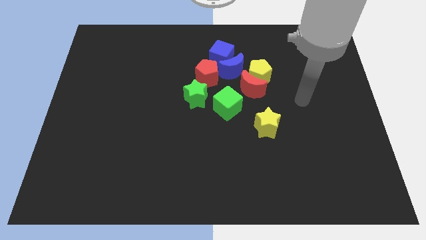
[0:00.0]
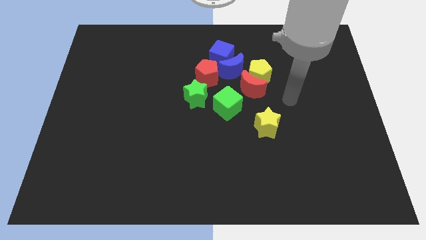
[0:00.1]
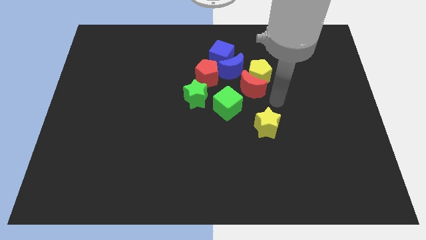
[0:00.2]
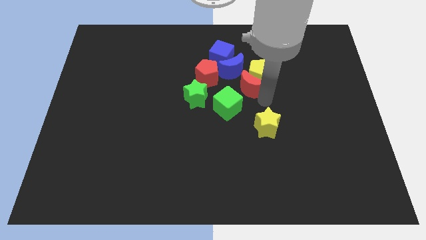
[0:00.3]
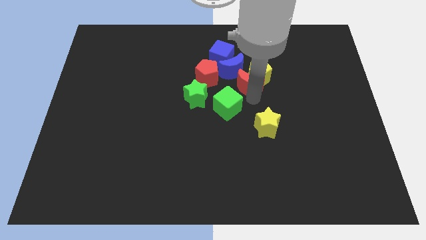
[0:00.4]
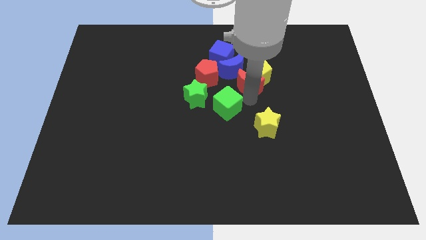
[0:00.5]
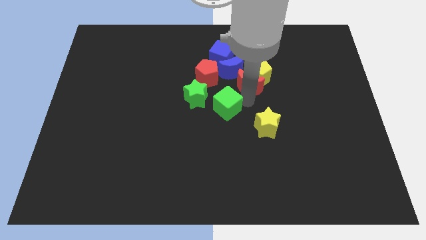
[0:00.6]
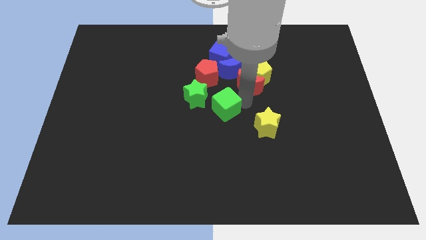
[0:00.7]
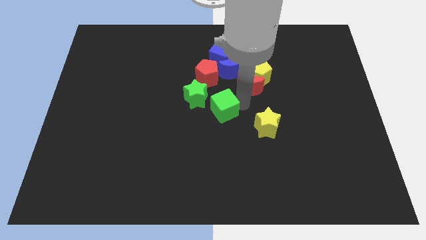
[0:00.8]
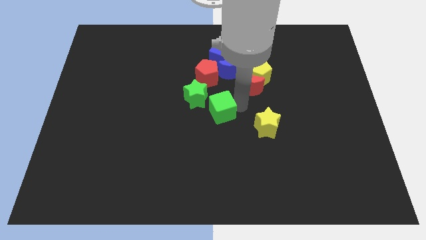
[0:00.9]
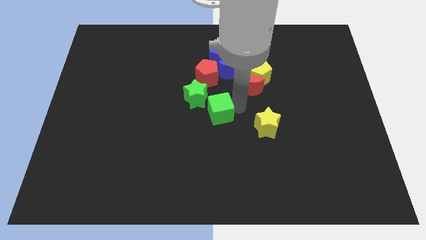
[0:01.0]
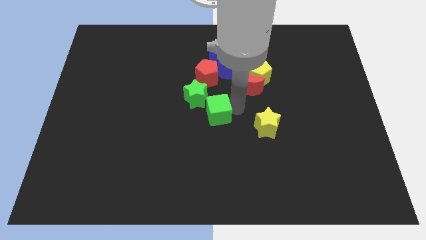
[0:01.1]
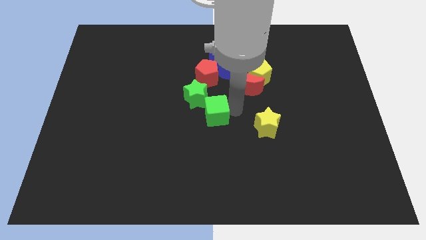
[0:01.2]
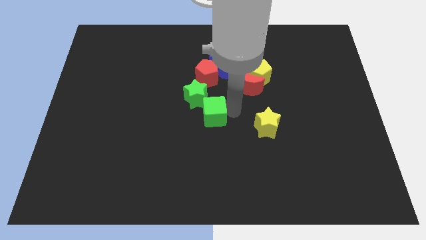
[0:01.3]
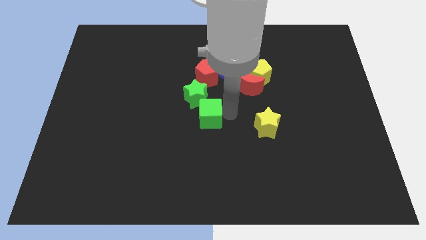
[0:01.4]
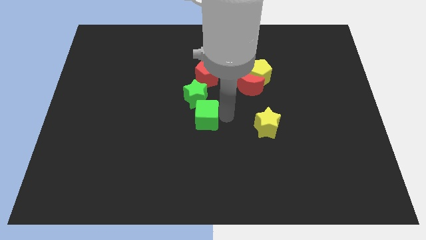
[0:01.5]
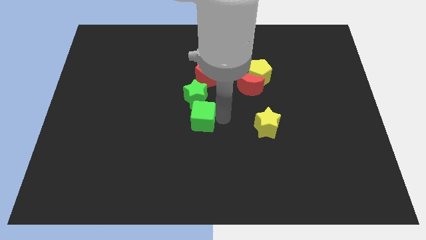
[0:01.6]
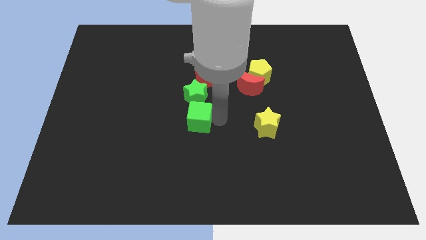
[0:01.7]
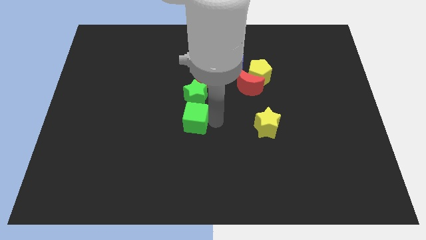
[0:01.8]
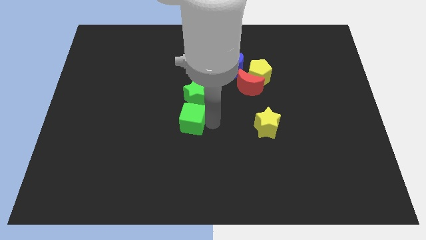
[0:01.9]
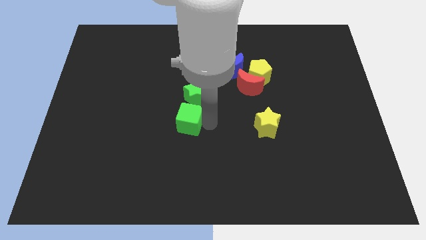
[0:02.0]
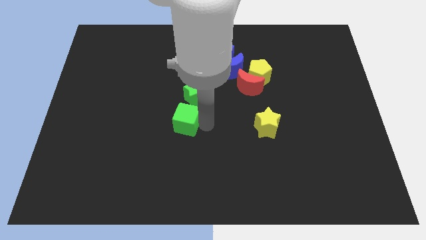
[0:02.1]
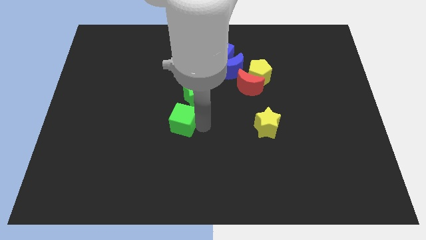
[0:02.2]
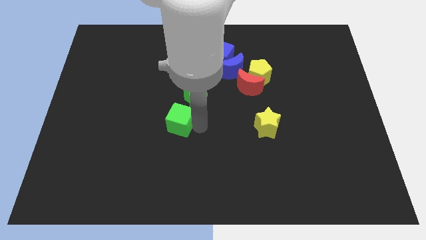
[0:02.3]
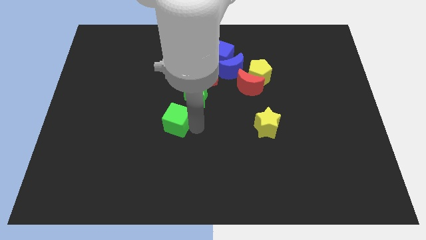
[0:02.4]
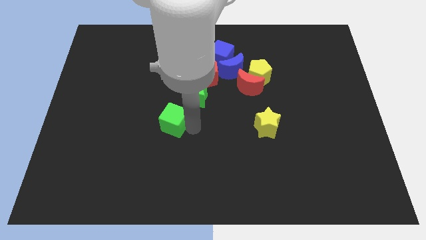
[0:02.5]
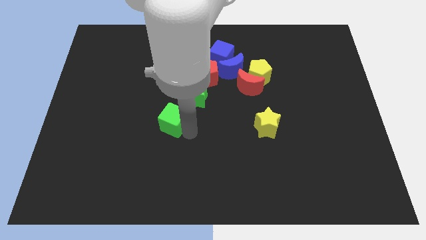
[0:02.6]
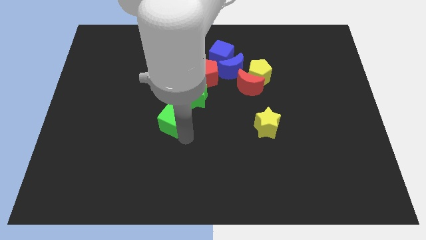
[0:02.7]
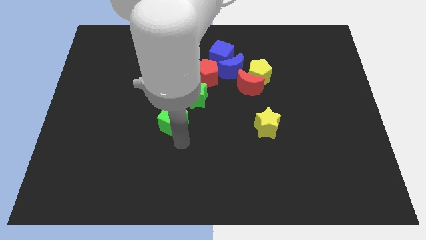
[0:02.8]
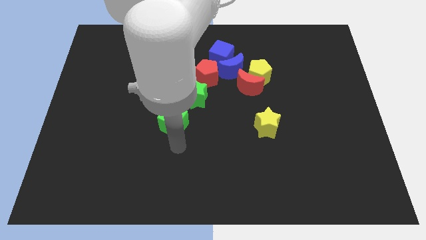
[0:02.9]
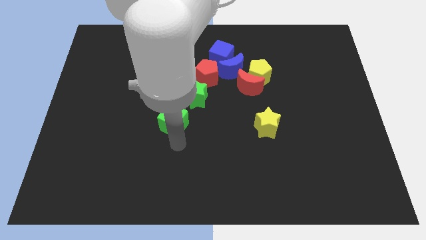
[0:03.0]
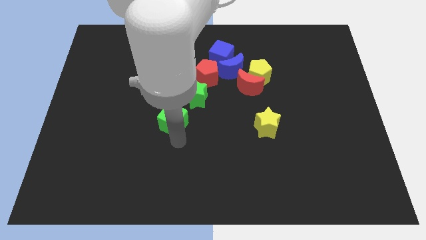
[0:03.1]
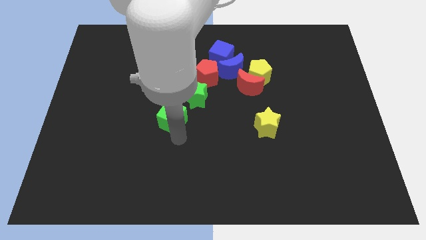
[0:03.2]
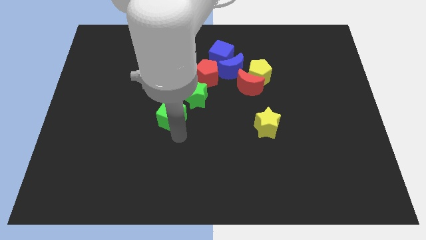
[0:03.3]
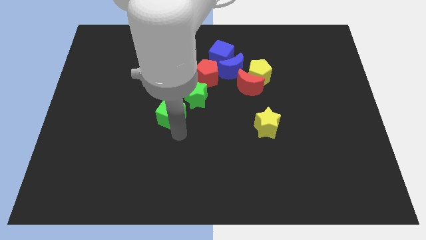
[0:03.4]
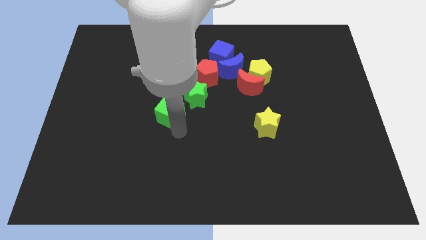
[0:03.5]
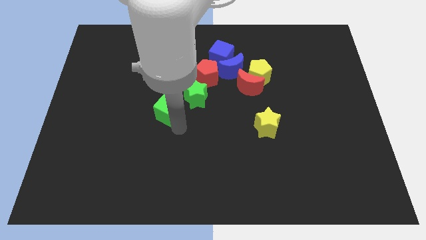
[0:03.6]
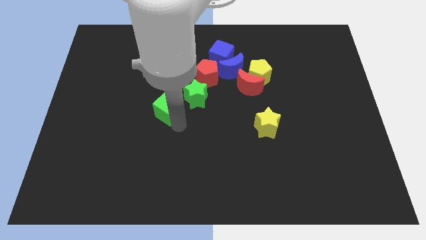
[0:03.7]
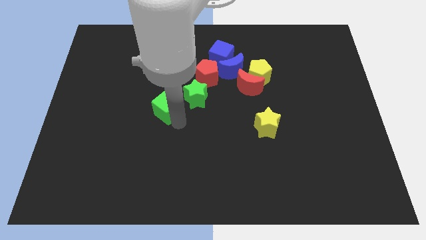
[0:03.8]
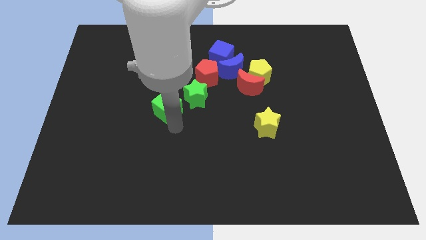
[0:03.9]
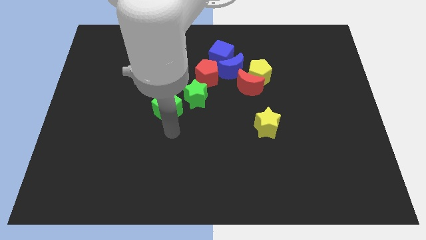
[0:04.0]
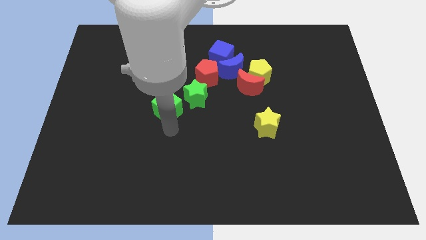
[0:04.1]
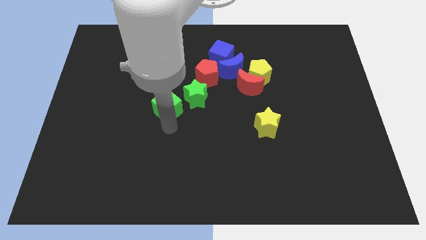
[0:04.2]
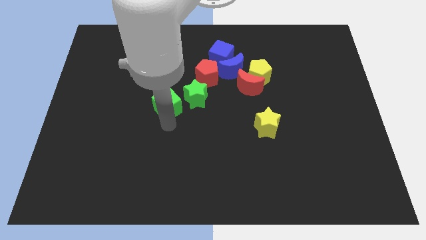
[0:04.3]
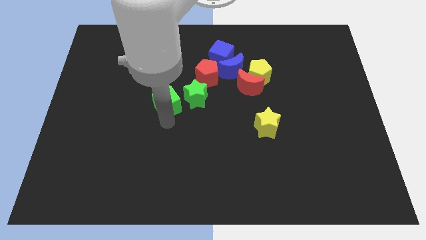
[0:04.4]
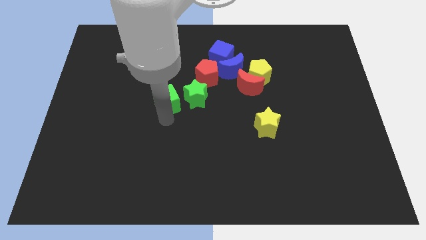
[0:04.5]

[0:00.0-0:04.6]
slightly push the green cube upwards and to the left diagonally

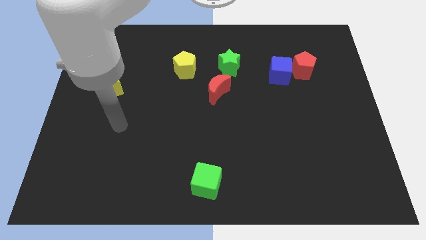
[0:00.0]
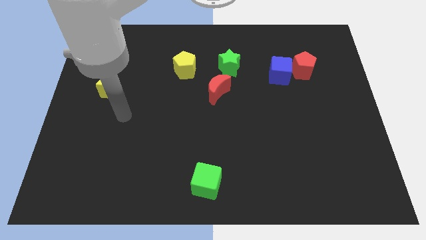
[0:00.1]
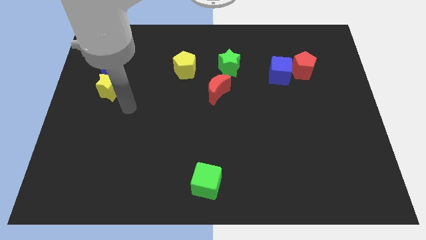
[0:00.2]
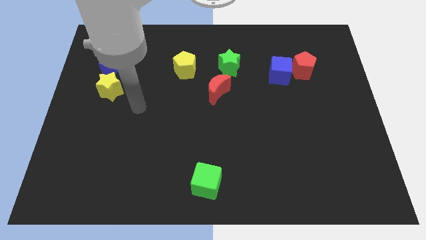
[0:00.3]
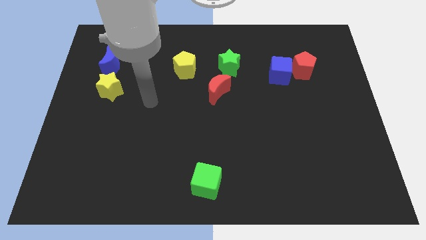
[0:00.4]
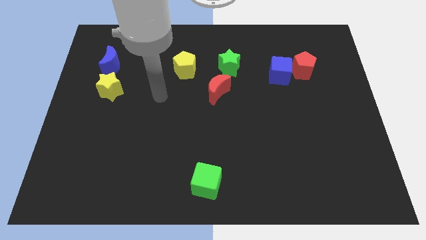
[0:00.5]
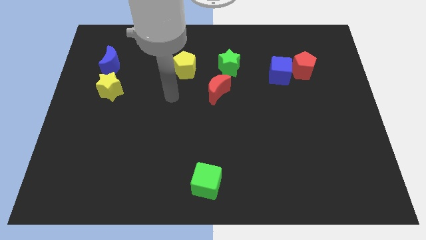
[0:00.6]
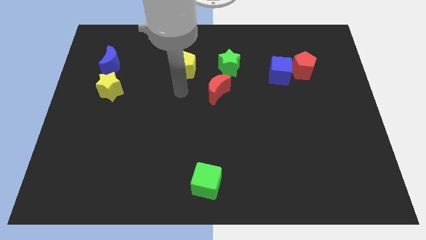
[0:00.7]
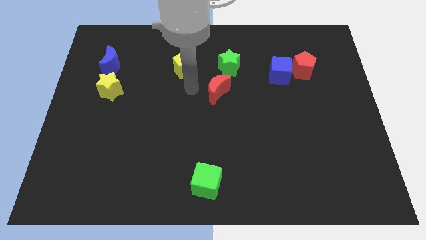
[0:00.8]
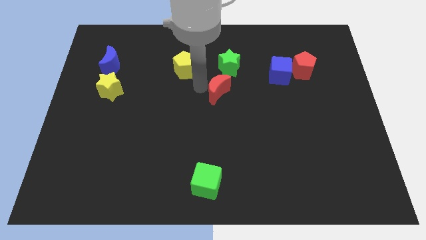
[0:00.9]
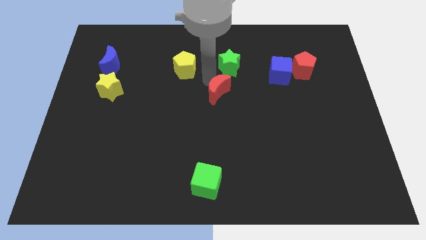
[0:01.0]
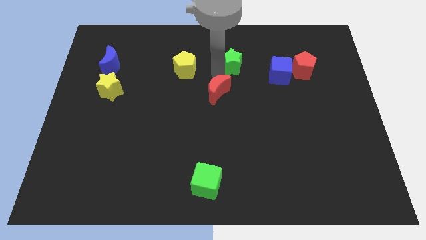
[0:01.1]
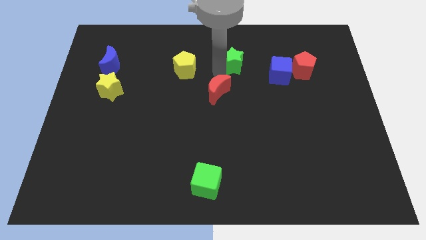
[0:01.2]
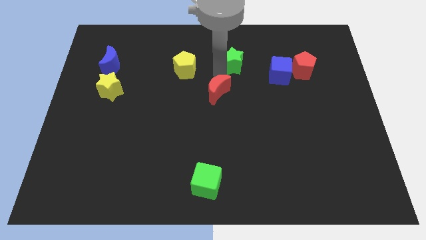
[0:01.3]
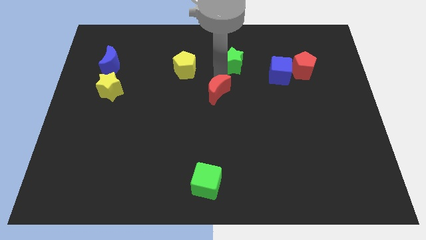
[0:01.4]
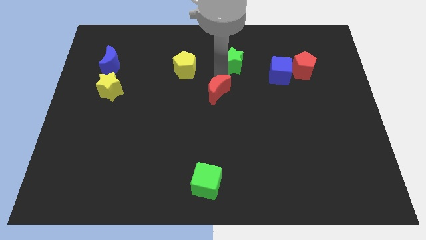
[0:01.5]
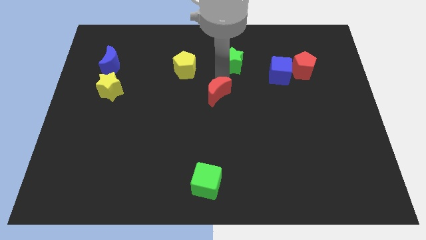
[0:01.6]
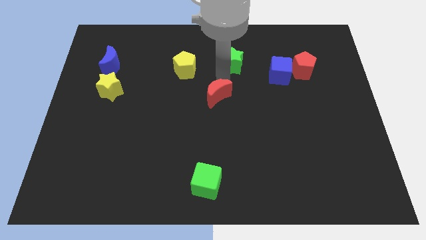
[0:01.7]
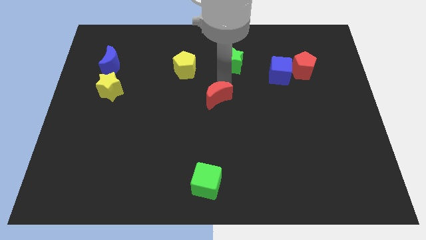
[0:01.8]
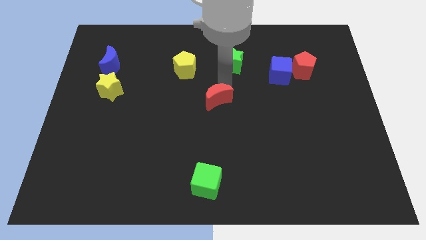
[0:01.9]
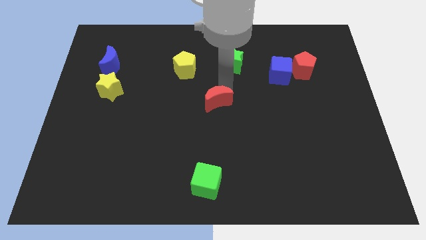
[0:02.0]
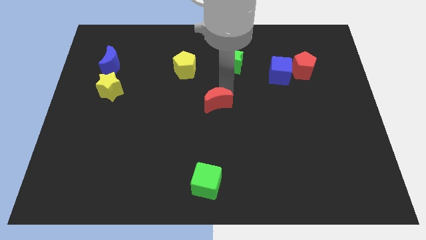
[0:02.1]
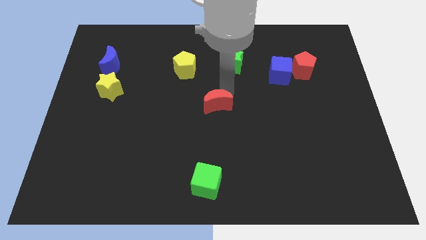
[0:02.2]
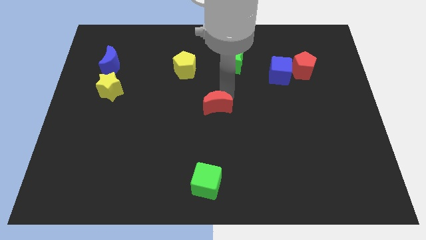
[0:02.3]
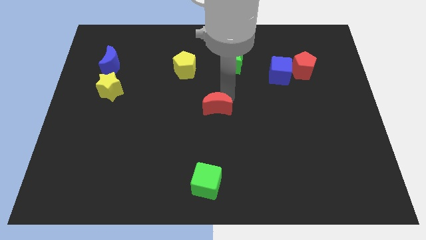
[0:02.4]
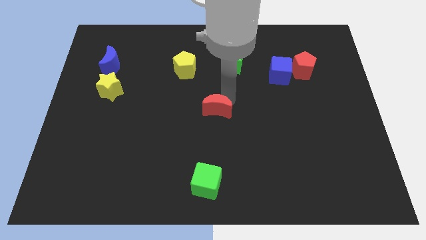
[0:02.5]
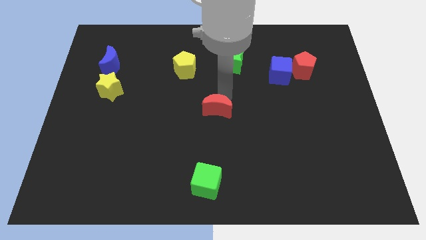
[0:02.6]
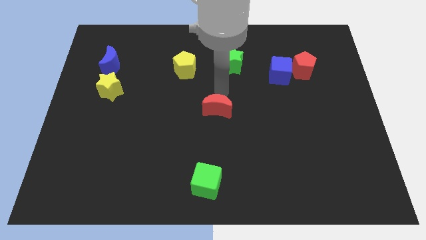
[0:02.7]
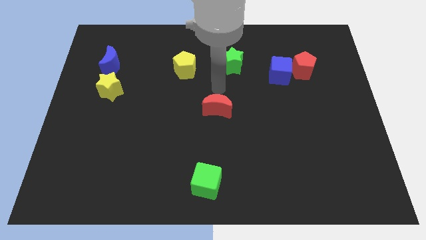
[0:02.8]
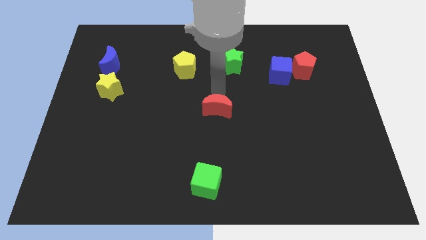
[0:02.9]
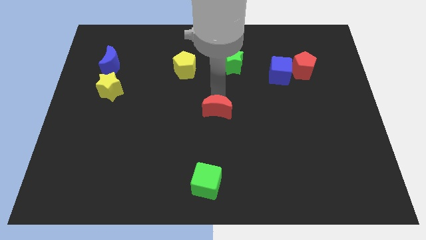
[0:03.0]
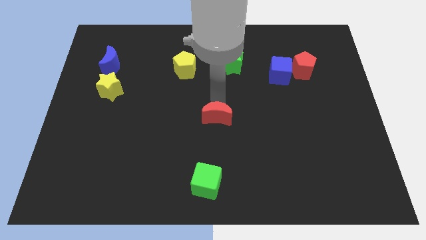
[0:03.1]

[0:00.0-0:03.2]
move the red moon slightly down
